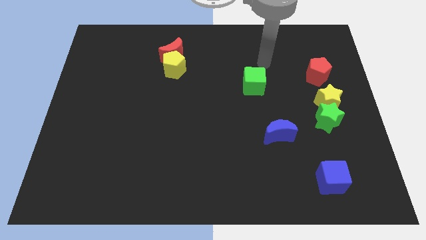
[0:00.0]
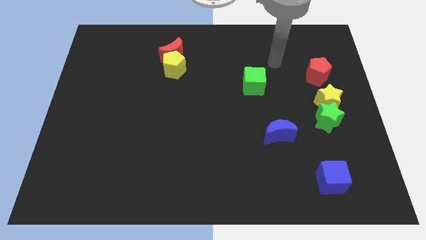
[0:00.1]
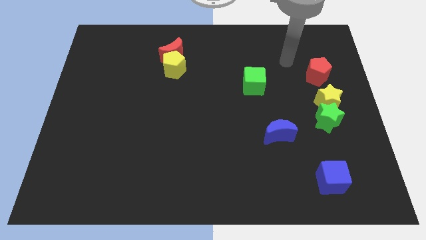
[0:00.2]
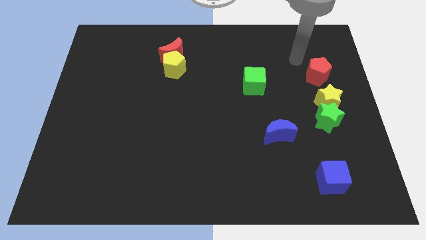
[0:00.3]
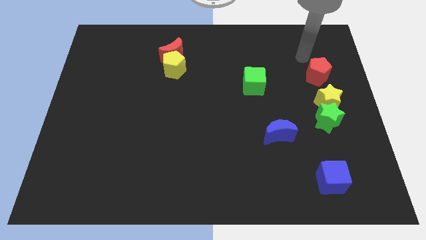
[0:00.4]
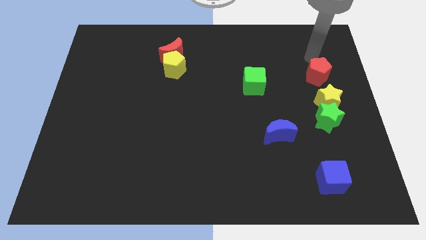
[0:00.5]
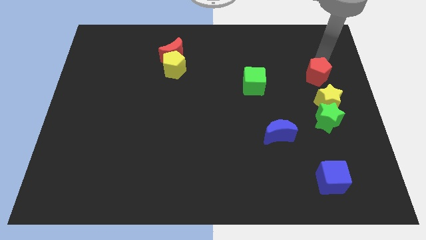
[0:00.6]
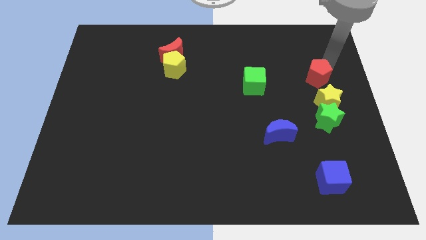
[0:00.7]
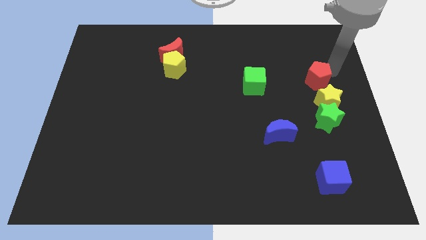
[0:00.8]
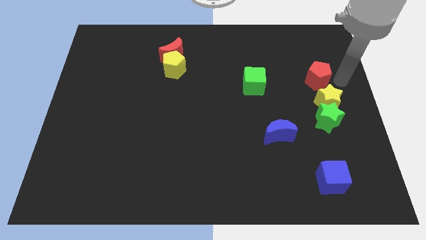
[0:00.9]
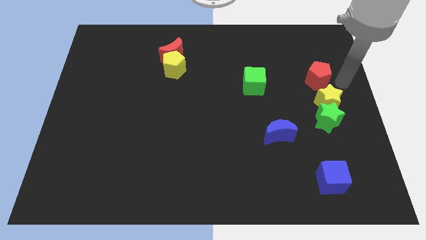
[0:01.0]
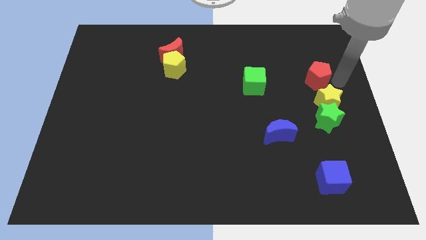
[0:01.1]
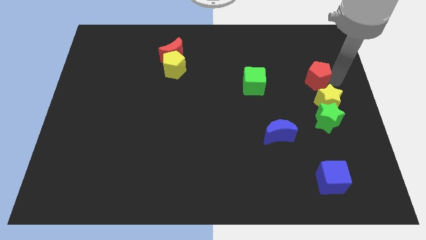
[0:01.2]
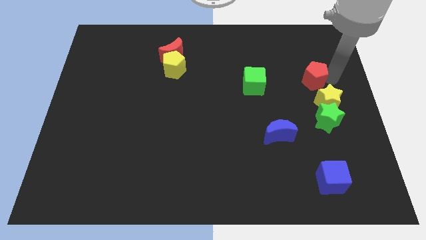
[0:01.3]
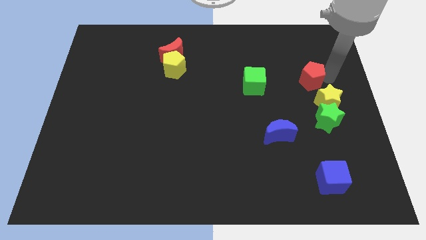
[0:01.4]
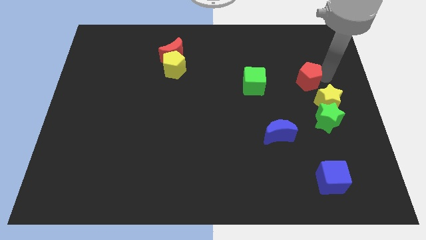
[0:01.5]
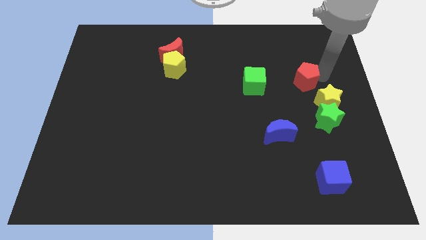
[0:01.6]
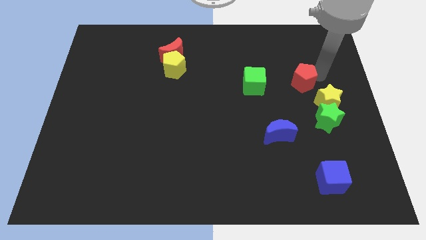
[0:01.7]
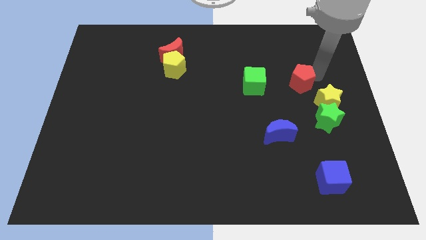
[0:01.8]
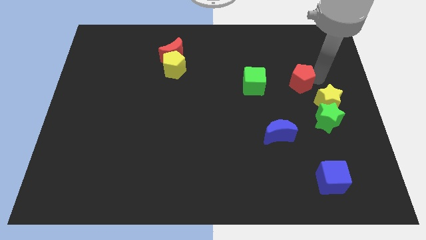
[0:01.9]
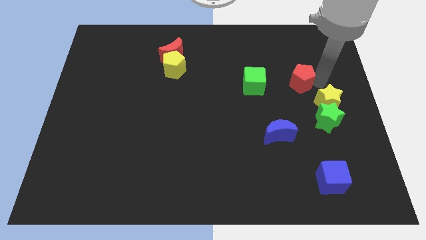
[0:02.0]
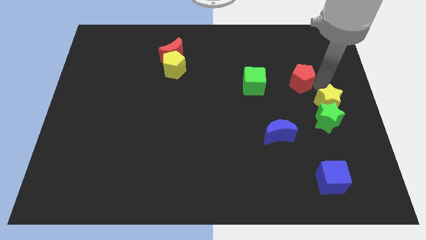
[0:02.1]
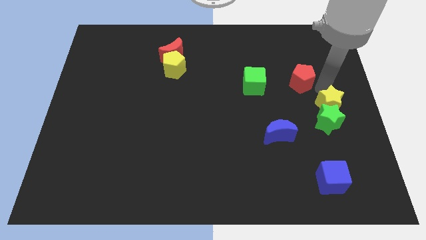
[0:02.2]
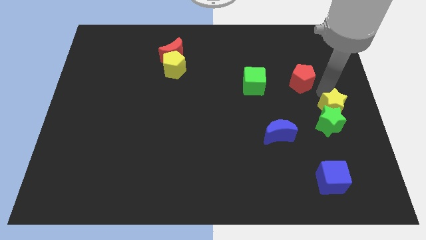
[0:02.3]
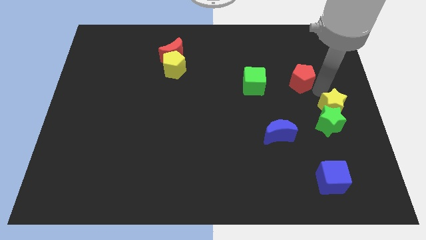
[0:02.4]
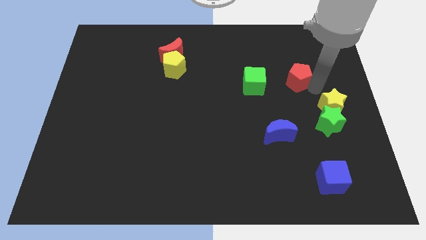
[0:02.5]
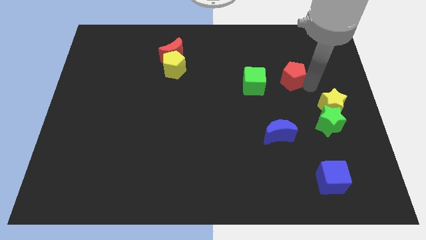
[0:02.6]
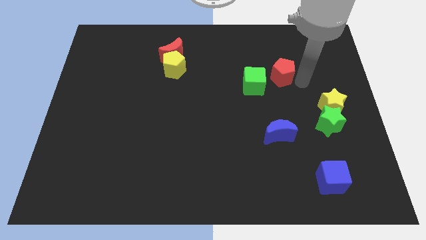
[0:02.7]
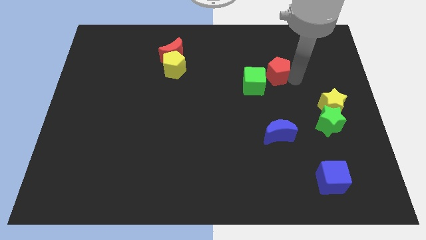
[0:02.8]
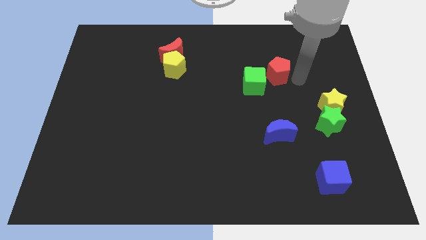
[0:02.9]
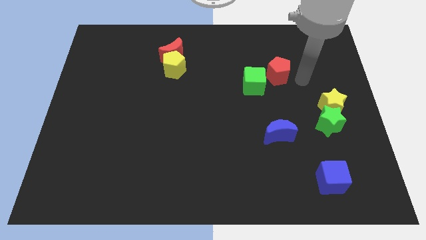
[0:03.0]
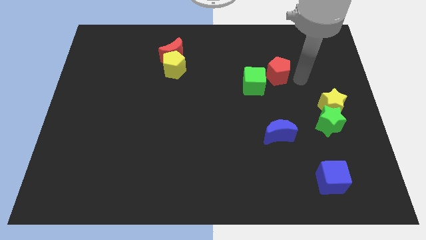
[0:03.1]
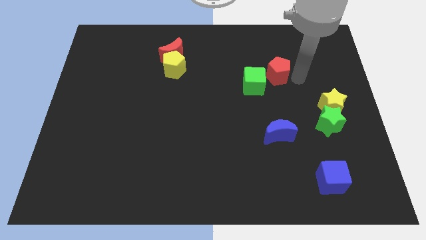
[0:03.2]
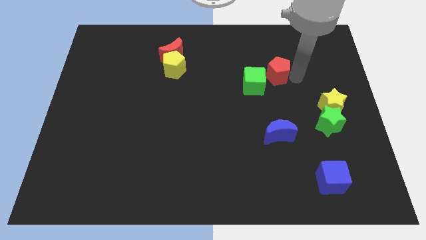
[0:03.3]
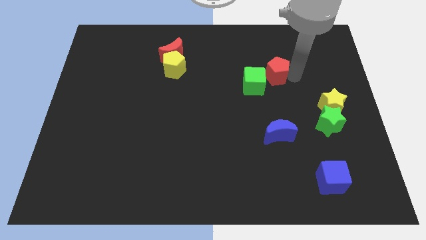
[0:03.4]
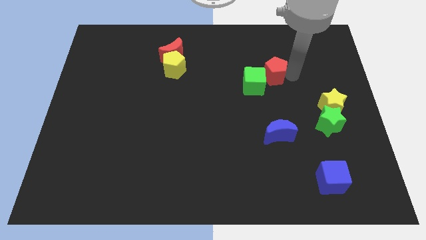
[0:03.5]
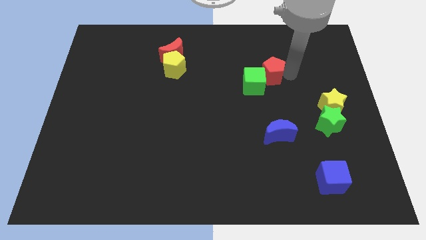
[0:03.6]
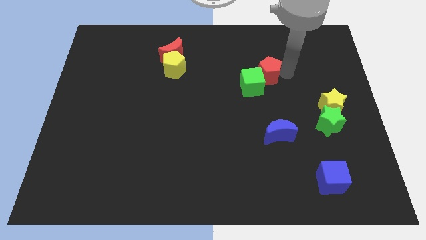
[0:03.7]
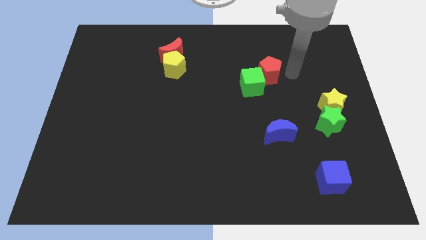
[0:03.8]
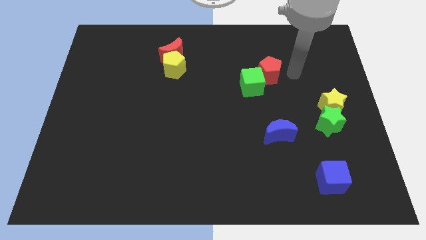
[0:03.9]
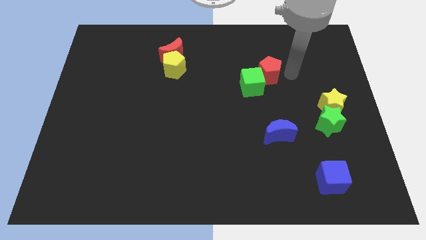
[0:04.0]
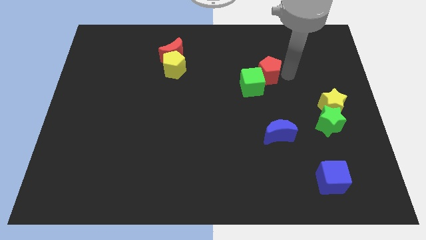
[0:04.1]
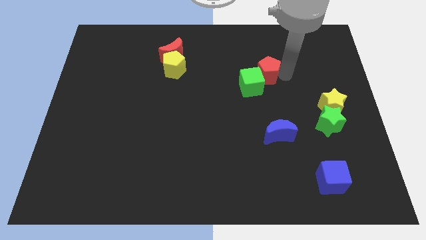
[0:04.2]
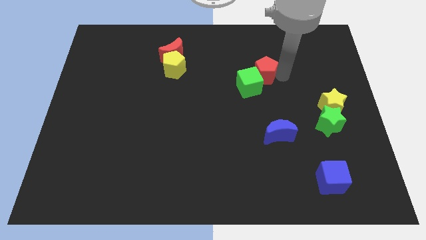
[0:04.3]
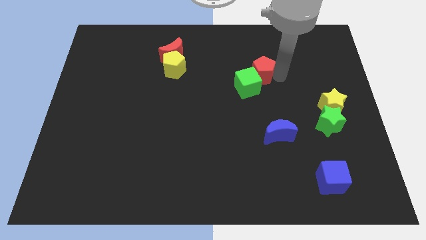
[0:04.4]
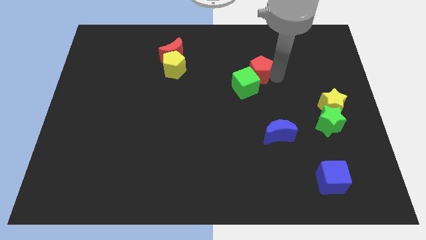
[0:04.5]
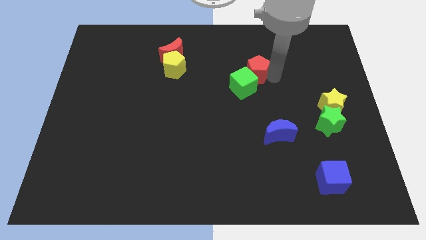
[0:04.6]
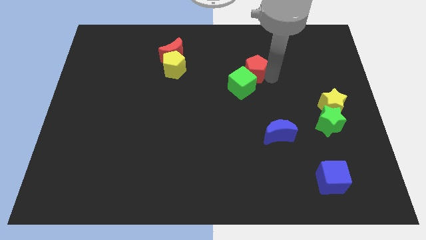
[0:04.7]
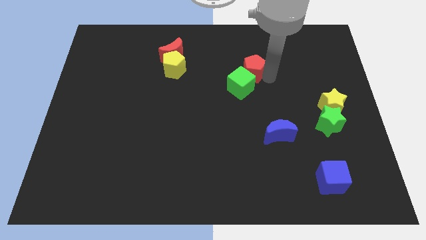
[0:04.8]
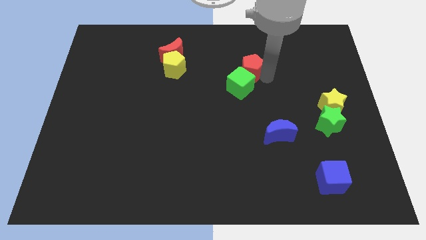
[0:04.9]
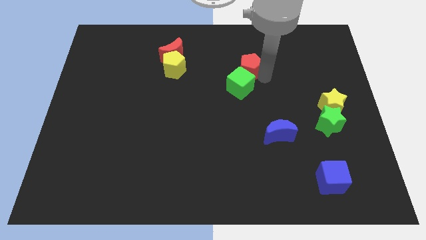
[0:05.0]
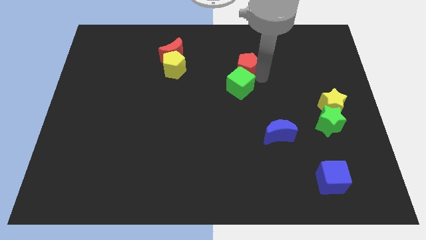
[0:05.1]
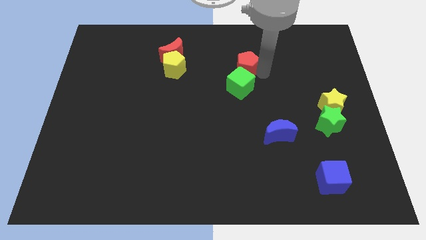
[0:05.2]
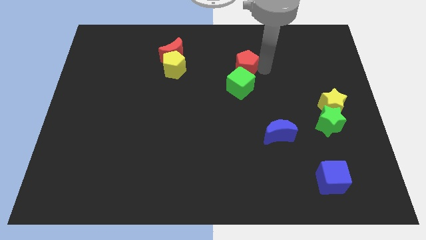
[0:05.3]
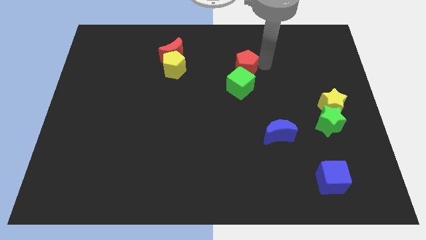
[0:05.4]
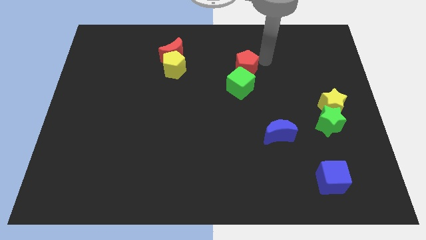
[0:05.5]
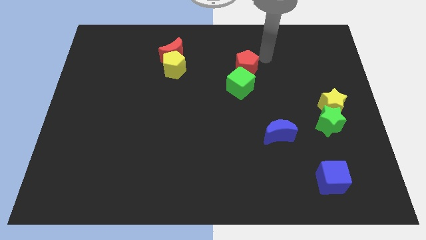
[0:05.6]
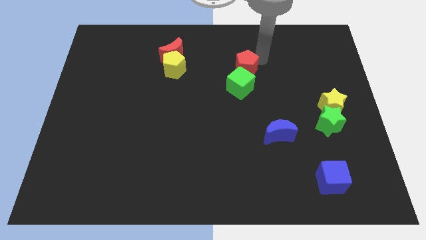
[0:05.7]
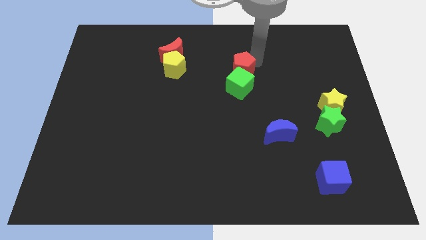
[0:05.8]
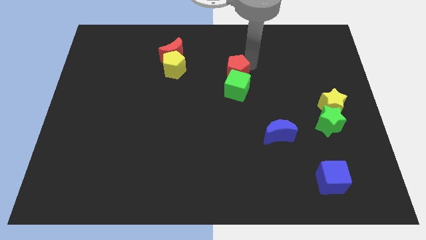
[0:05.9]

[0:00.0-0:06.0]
push the red pentagon left

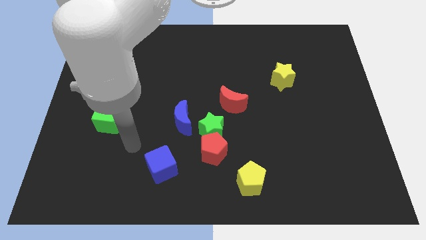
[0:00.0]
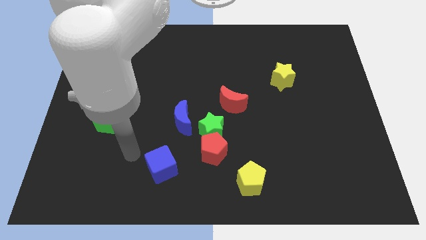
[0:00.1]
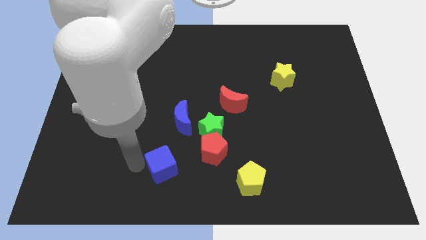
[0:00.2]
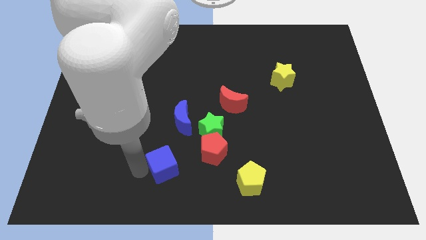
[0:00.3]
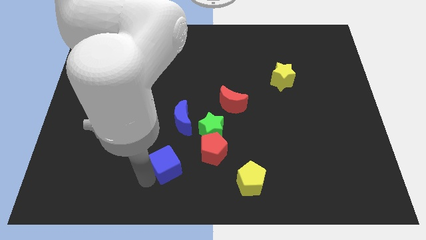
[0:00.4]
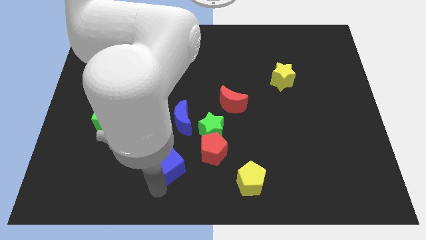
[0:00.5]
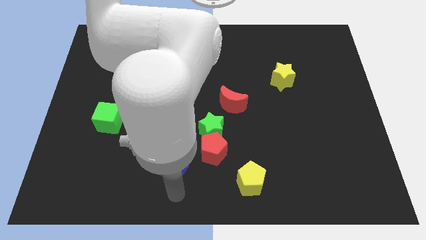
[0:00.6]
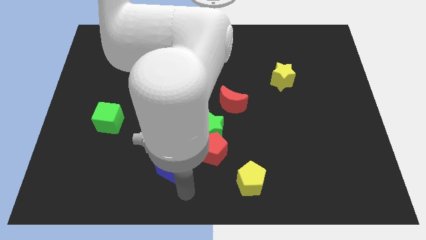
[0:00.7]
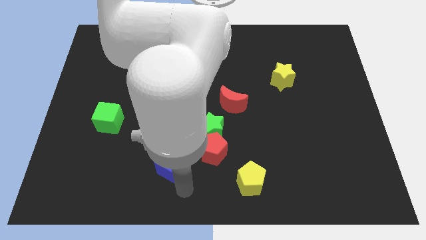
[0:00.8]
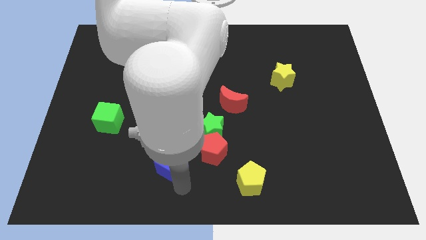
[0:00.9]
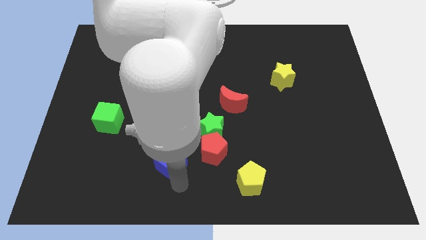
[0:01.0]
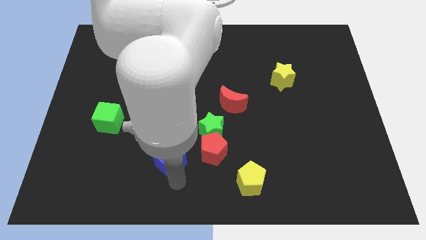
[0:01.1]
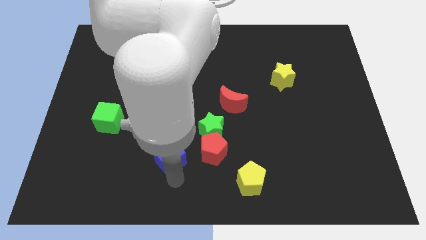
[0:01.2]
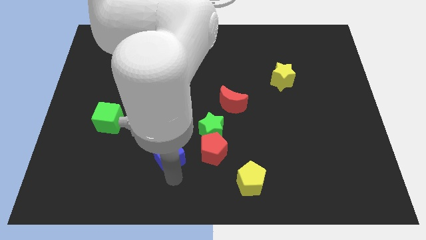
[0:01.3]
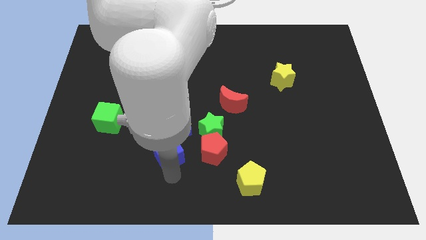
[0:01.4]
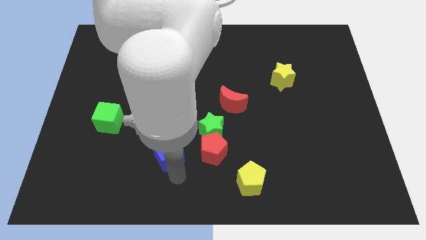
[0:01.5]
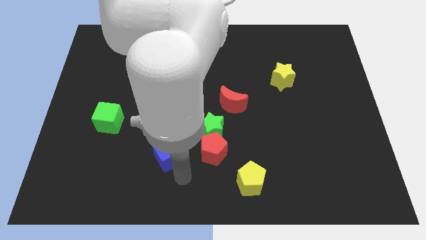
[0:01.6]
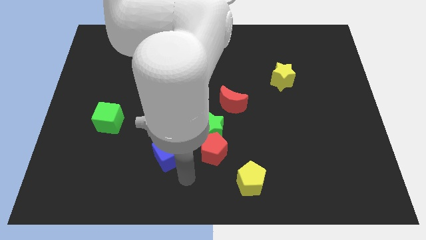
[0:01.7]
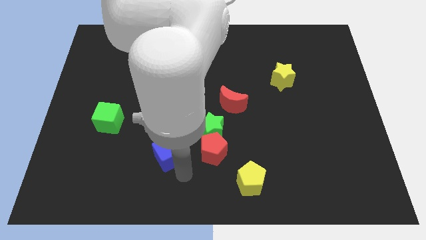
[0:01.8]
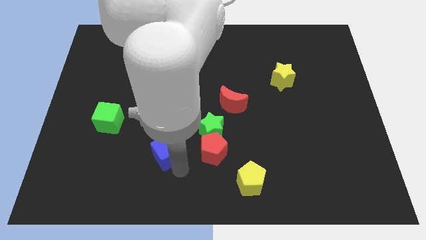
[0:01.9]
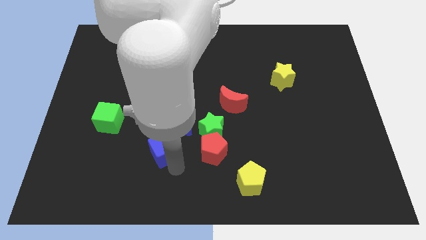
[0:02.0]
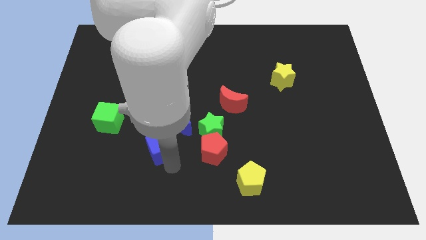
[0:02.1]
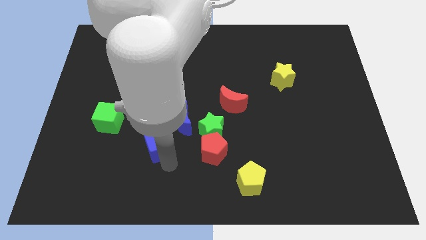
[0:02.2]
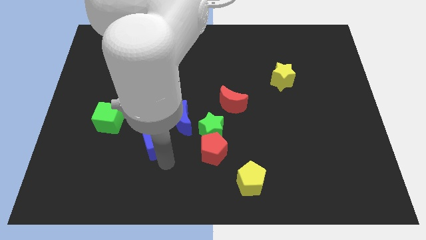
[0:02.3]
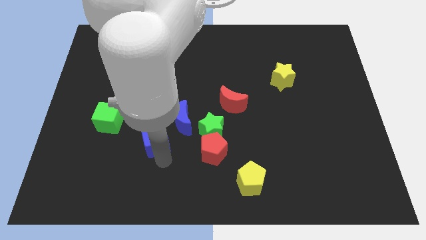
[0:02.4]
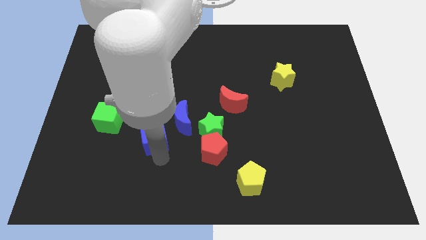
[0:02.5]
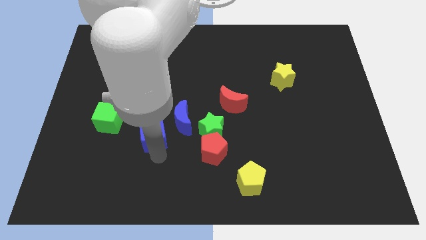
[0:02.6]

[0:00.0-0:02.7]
slide the blue cube upwards somewhat

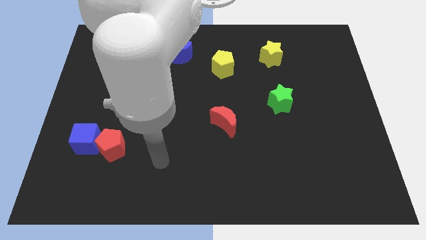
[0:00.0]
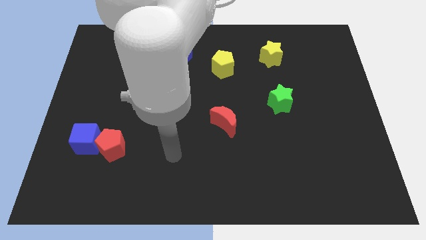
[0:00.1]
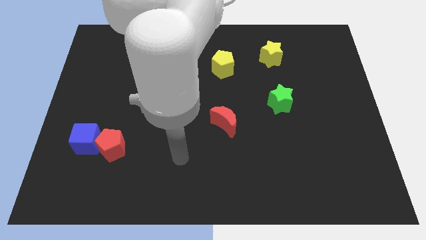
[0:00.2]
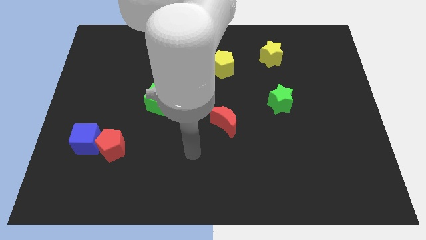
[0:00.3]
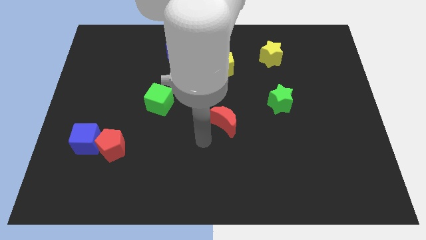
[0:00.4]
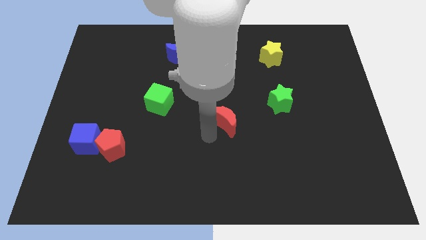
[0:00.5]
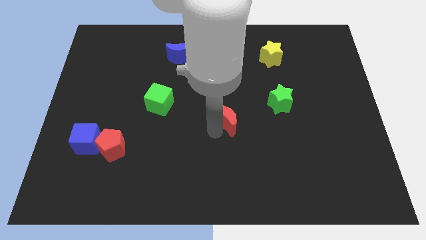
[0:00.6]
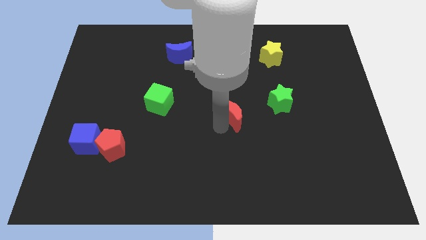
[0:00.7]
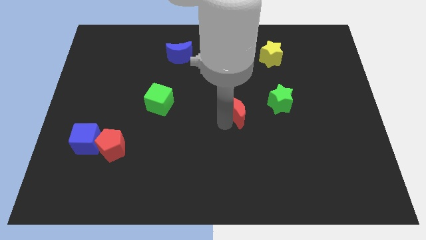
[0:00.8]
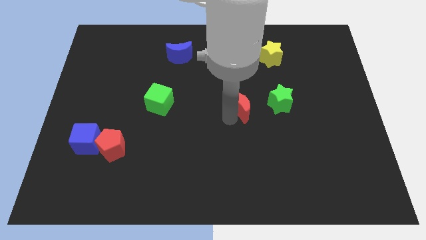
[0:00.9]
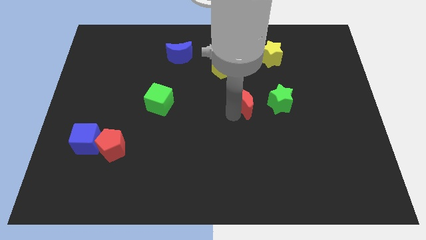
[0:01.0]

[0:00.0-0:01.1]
slightly move the red moon diagonally up and to the right
